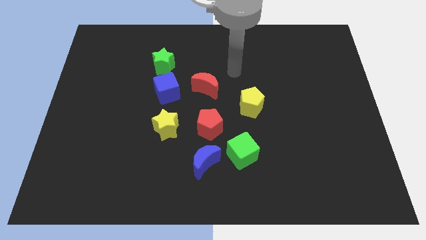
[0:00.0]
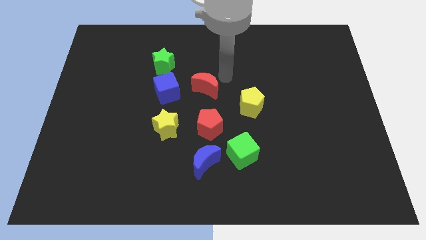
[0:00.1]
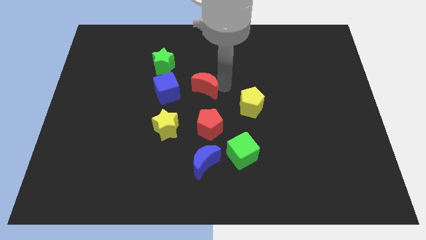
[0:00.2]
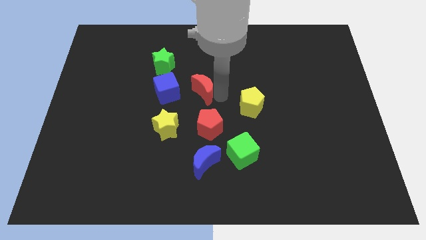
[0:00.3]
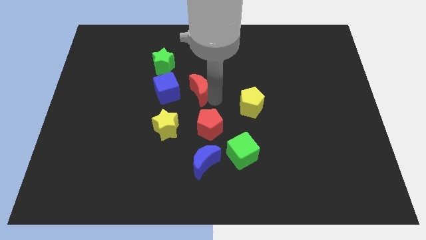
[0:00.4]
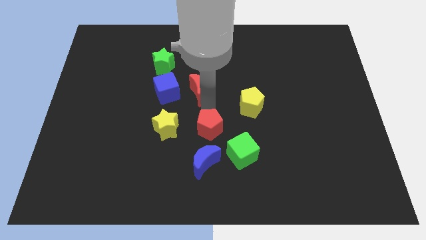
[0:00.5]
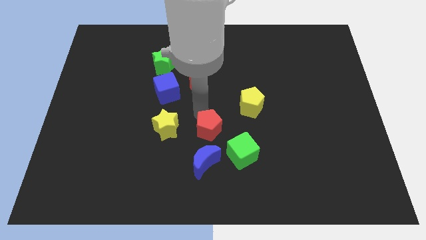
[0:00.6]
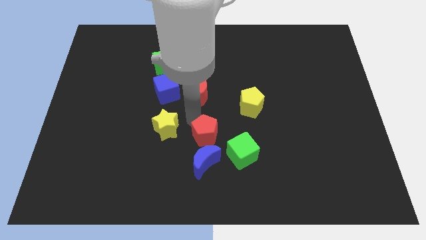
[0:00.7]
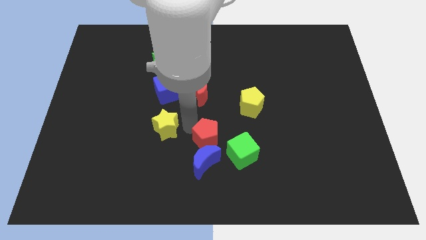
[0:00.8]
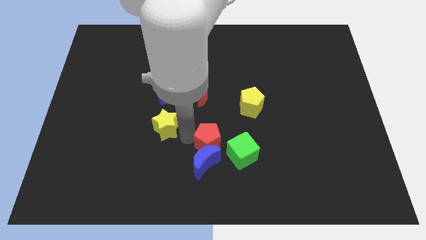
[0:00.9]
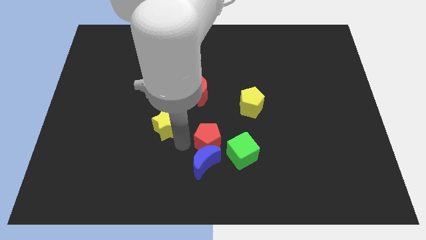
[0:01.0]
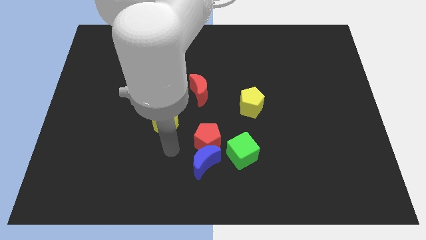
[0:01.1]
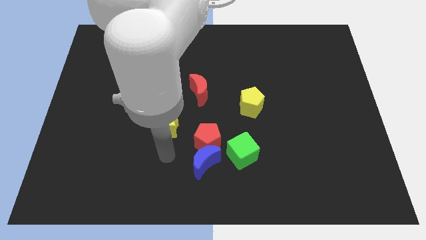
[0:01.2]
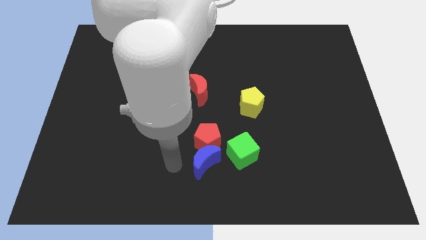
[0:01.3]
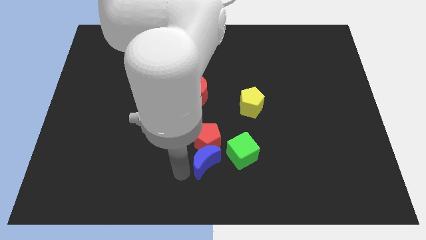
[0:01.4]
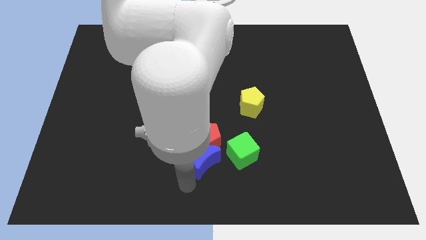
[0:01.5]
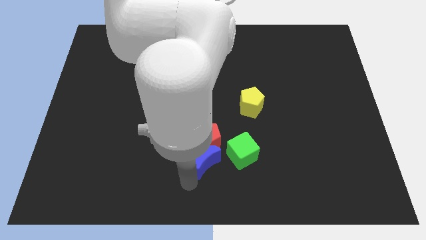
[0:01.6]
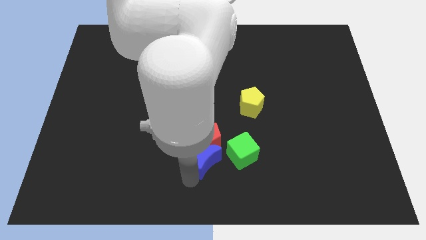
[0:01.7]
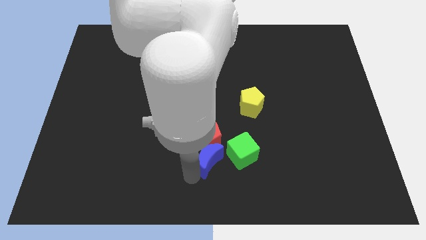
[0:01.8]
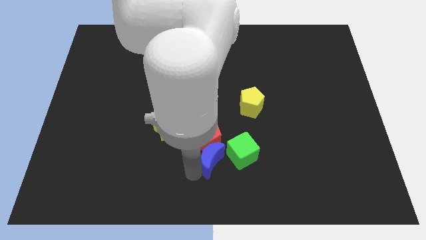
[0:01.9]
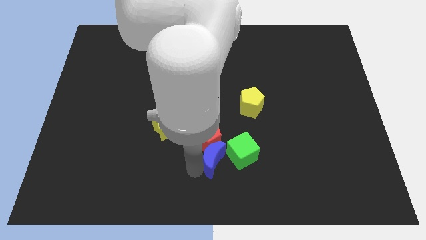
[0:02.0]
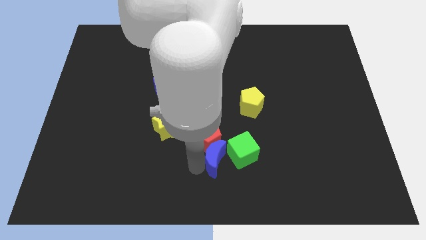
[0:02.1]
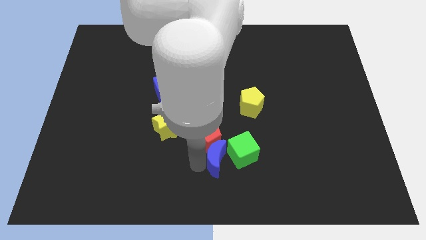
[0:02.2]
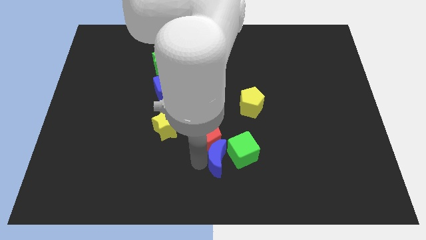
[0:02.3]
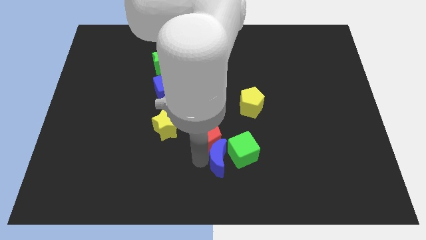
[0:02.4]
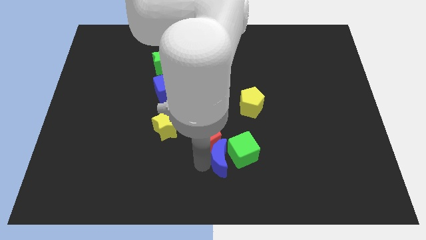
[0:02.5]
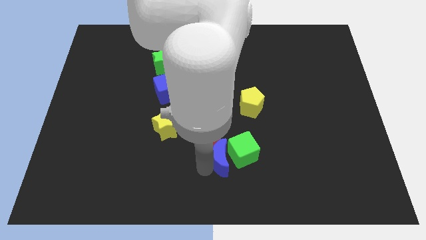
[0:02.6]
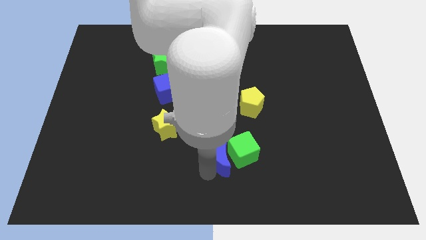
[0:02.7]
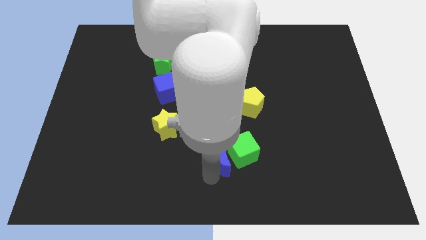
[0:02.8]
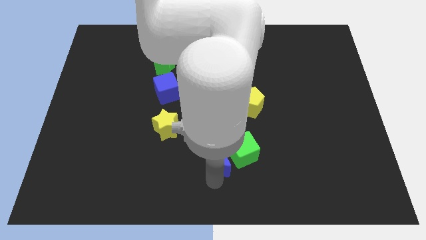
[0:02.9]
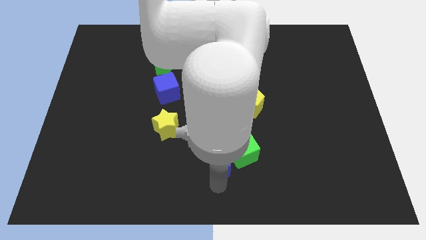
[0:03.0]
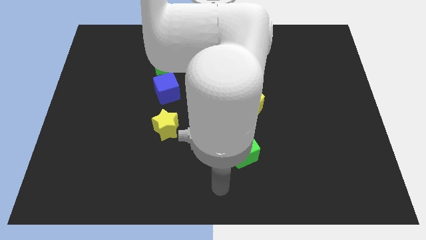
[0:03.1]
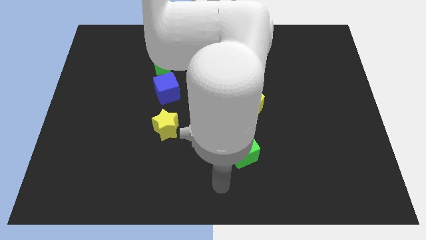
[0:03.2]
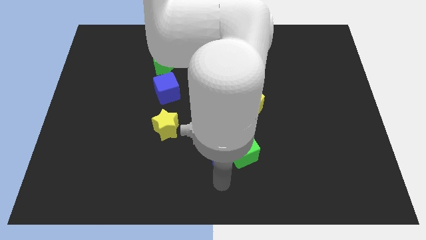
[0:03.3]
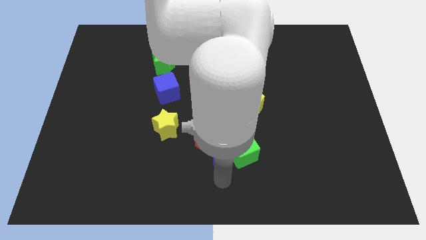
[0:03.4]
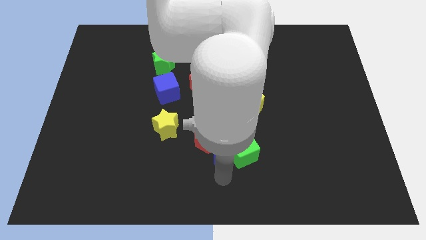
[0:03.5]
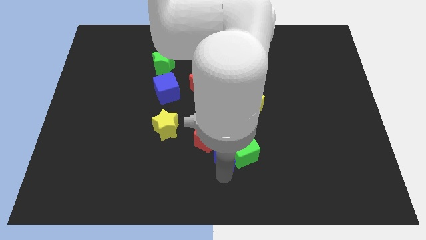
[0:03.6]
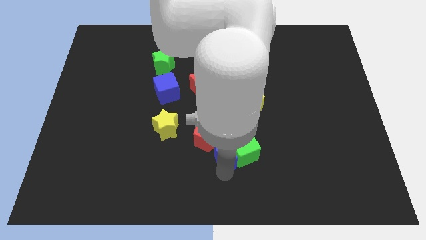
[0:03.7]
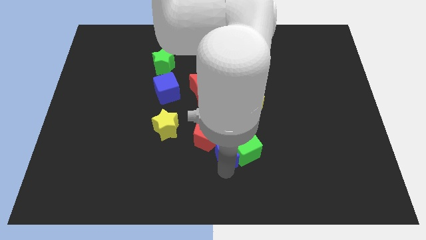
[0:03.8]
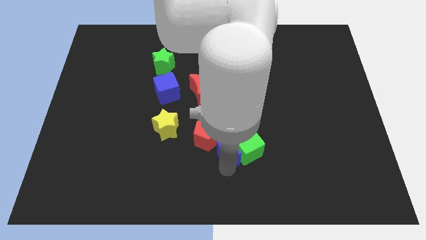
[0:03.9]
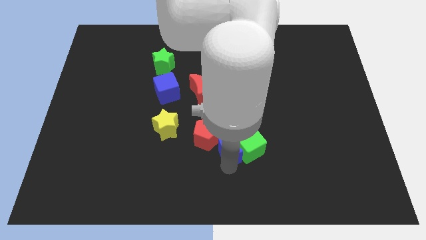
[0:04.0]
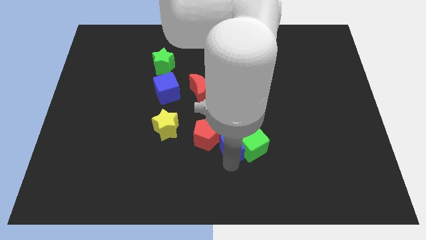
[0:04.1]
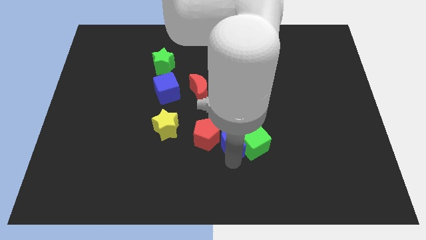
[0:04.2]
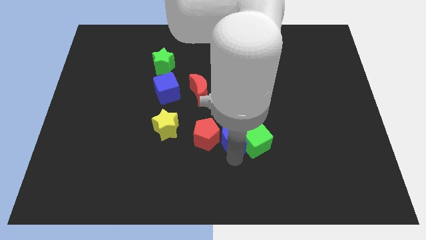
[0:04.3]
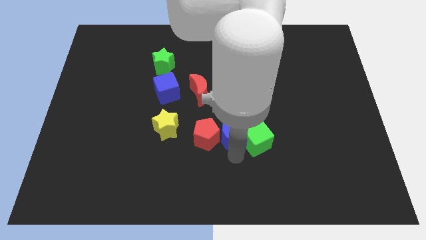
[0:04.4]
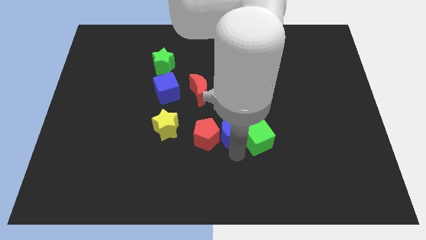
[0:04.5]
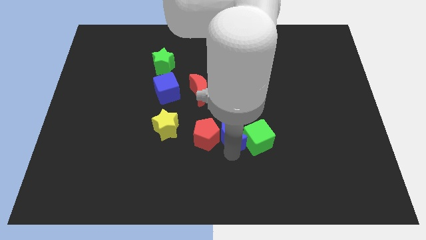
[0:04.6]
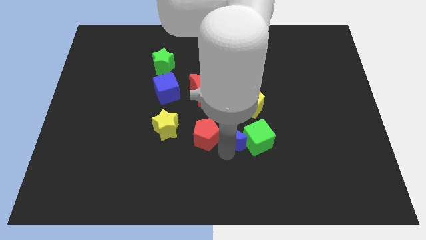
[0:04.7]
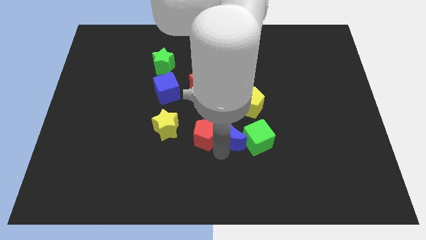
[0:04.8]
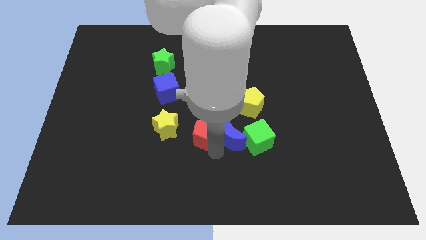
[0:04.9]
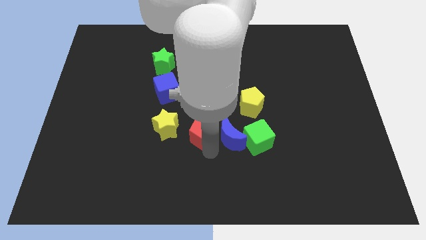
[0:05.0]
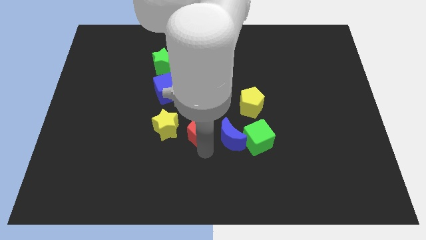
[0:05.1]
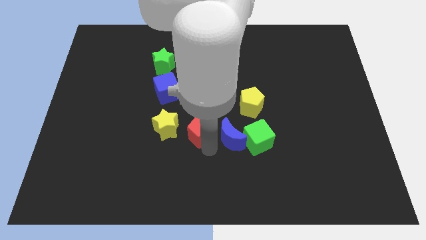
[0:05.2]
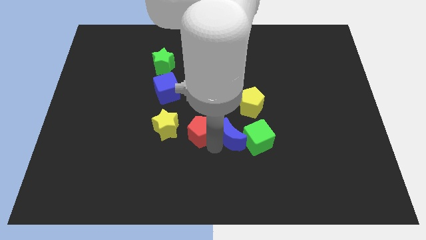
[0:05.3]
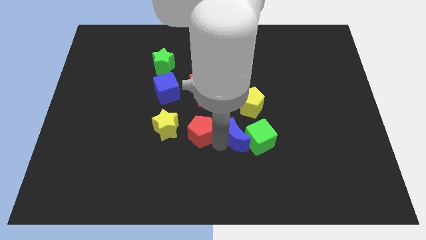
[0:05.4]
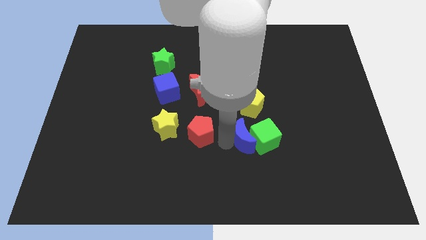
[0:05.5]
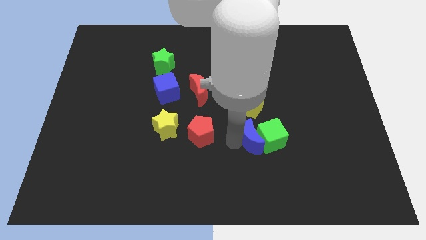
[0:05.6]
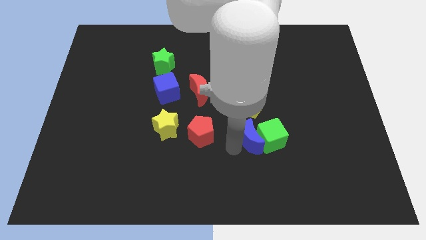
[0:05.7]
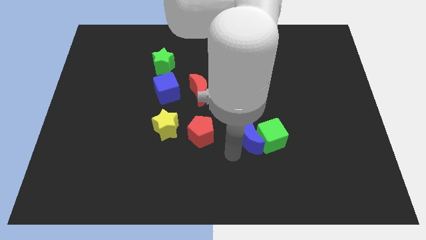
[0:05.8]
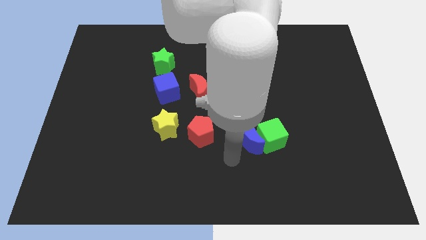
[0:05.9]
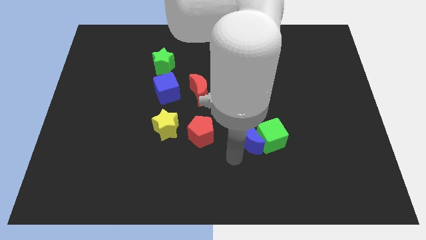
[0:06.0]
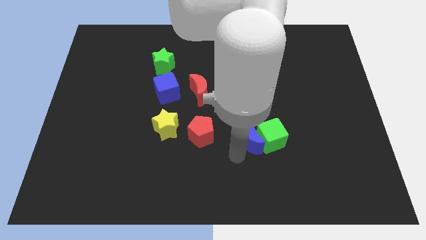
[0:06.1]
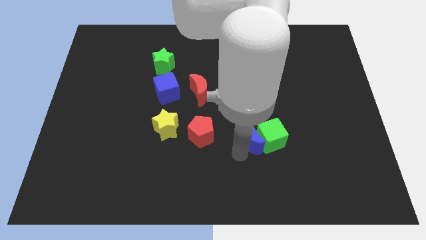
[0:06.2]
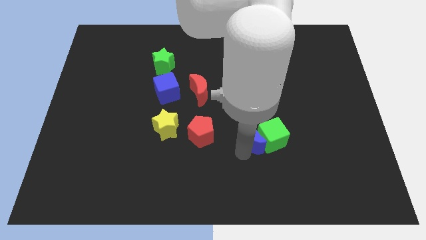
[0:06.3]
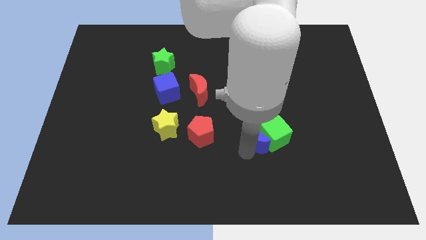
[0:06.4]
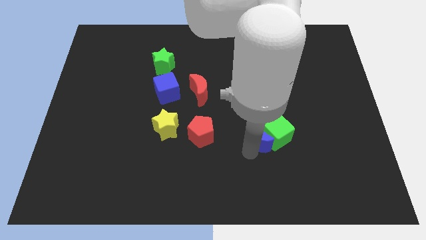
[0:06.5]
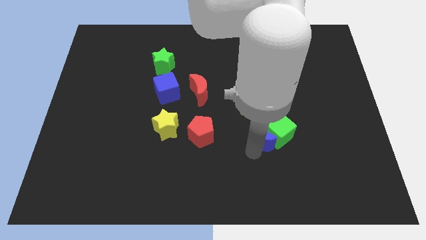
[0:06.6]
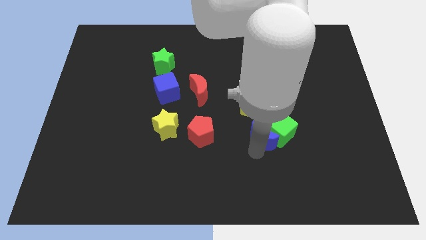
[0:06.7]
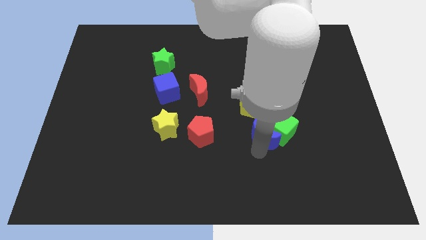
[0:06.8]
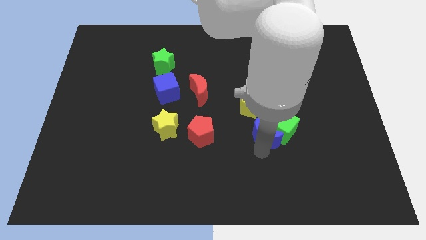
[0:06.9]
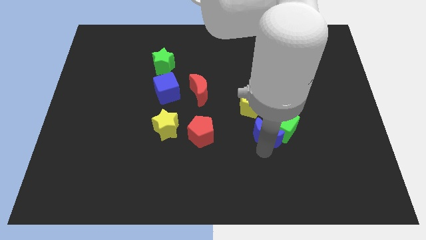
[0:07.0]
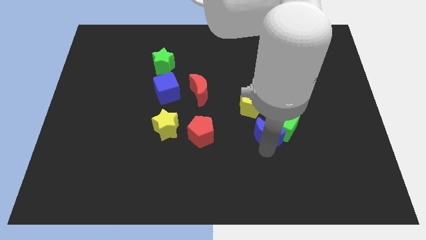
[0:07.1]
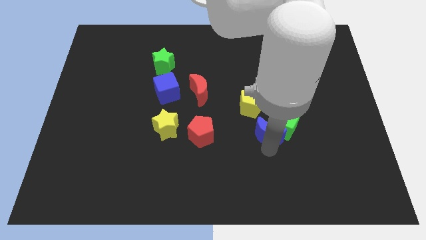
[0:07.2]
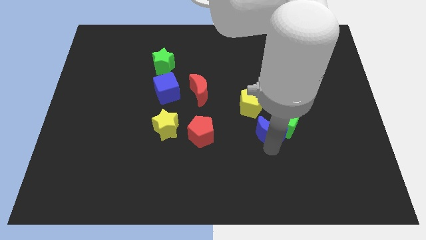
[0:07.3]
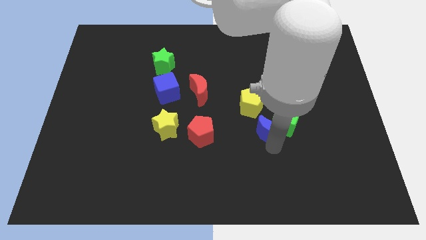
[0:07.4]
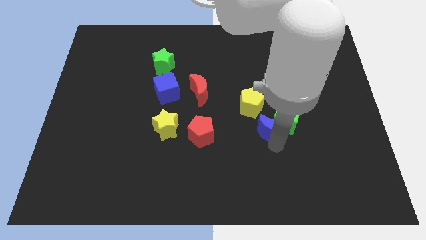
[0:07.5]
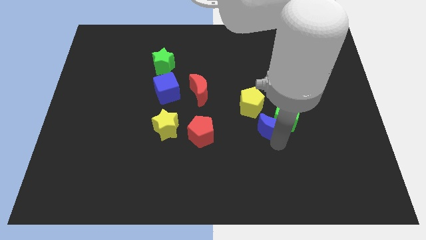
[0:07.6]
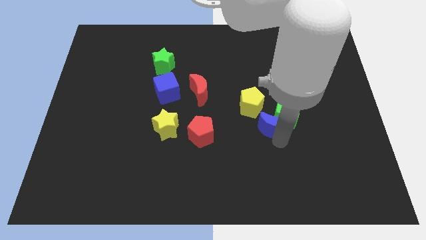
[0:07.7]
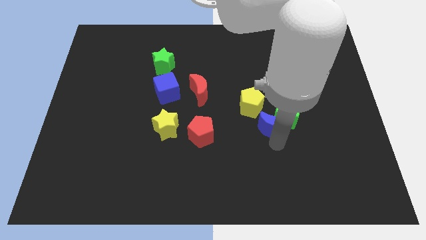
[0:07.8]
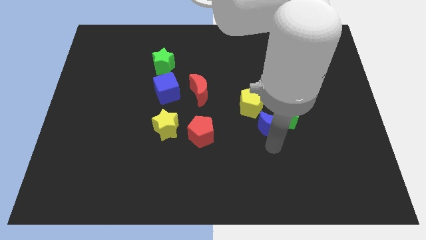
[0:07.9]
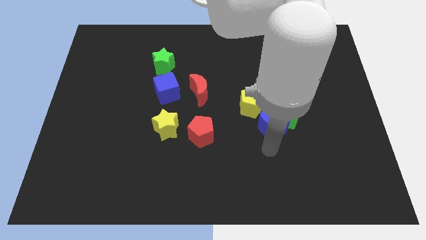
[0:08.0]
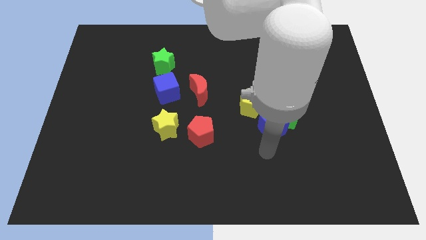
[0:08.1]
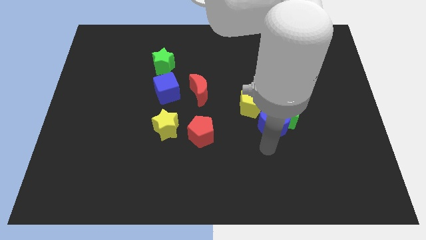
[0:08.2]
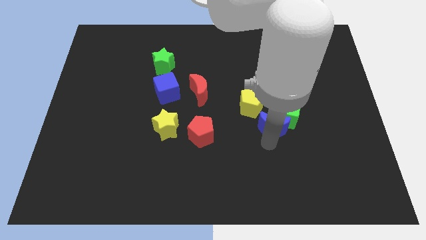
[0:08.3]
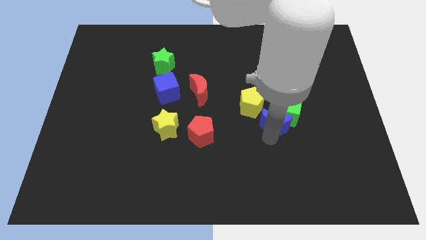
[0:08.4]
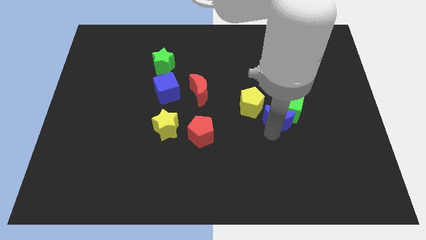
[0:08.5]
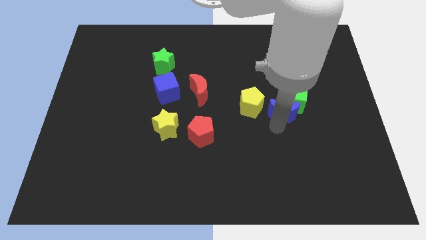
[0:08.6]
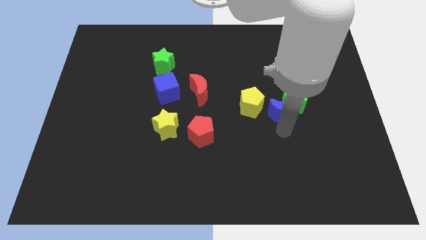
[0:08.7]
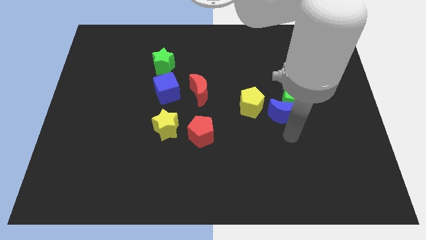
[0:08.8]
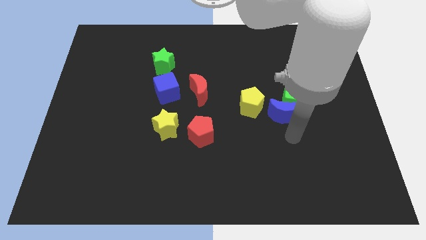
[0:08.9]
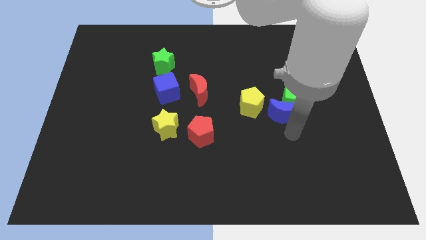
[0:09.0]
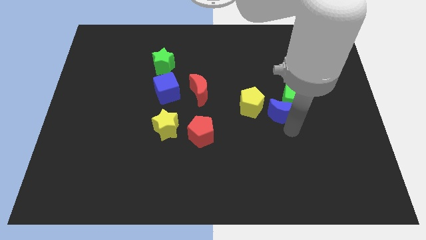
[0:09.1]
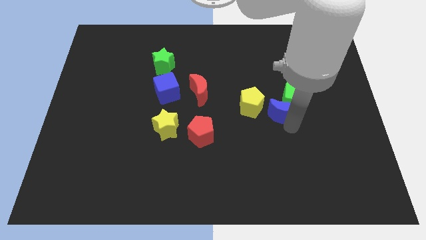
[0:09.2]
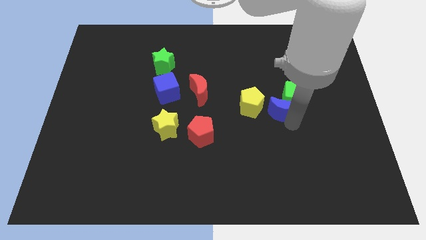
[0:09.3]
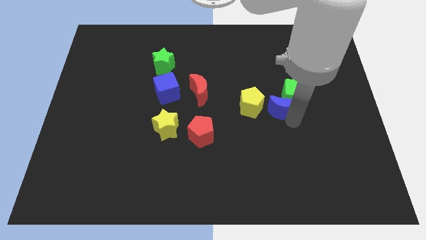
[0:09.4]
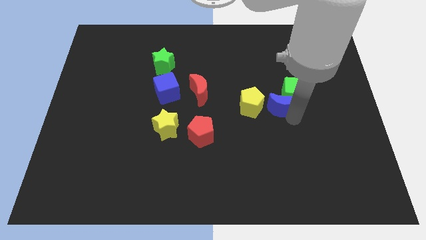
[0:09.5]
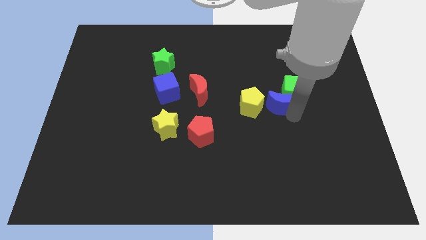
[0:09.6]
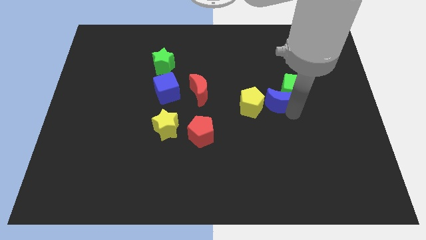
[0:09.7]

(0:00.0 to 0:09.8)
push the blue moon diagonally up and to the right of the yellow pentagon
